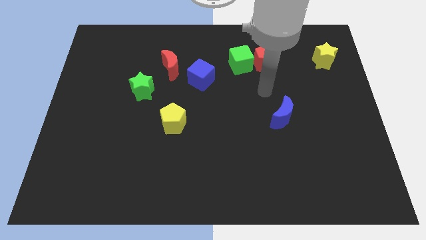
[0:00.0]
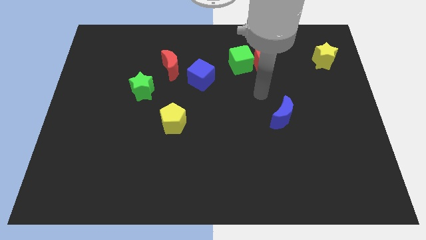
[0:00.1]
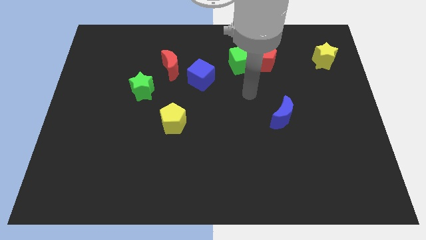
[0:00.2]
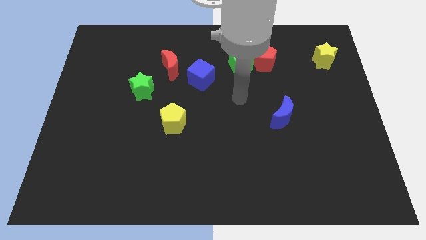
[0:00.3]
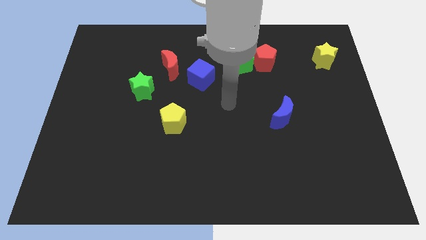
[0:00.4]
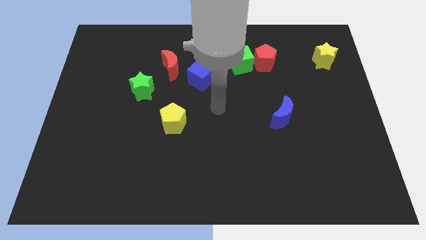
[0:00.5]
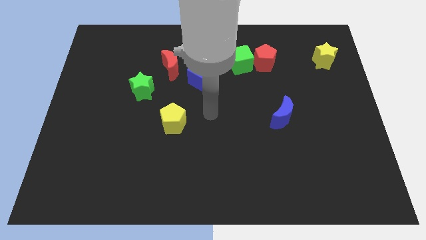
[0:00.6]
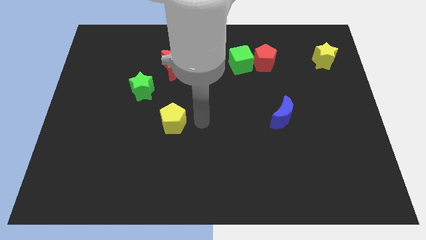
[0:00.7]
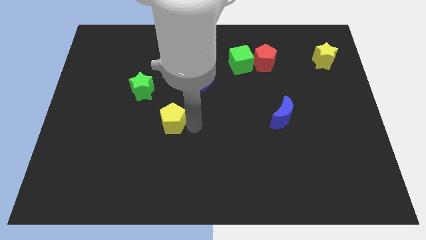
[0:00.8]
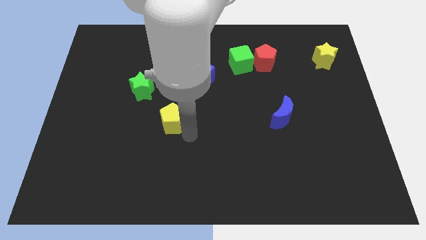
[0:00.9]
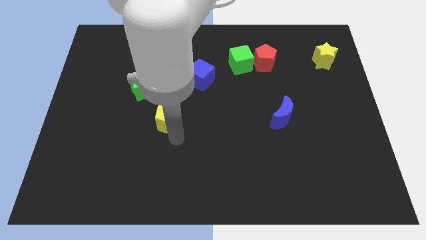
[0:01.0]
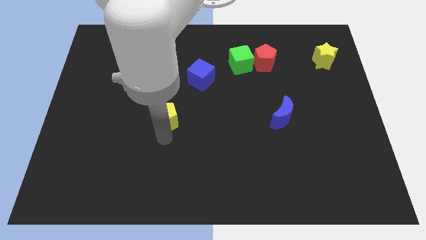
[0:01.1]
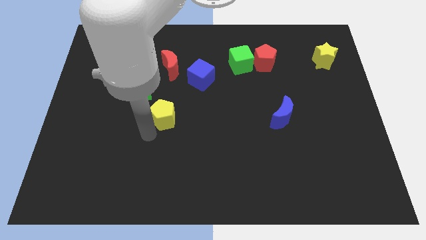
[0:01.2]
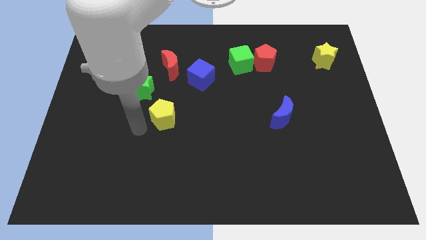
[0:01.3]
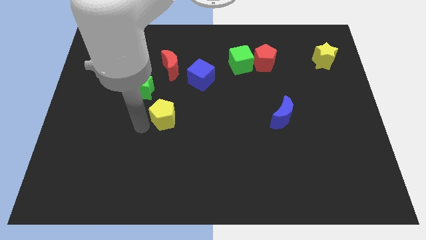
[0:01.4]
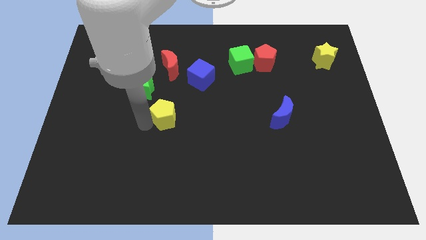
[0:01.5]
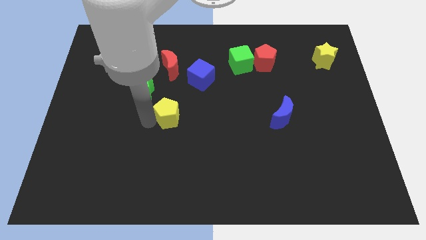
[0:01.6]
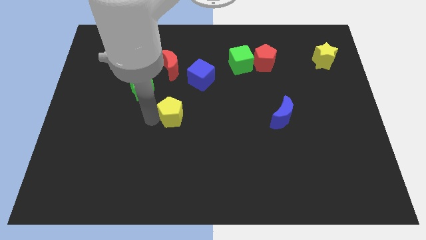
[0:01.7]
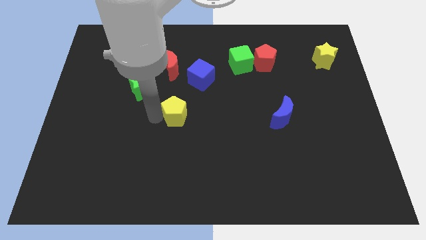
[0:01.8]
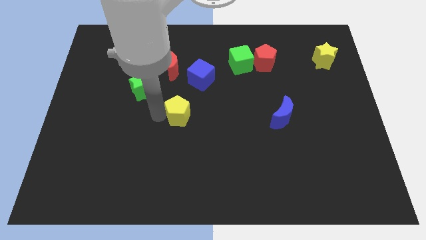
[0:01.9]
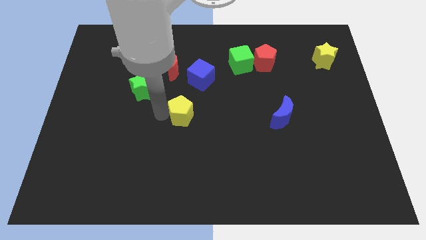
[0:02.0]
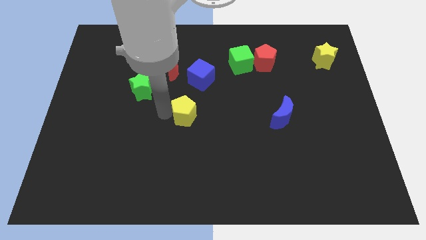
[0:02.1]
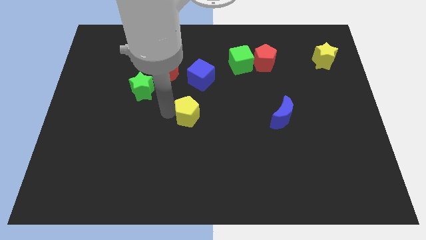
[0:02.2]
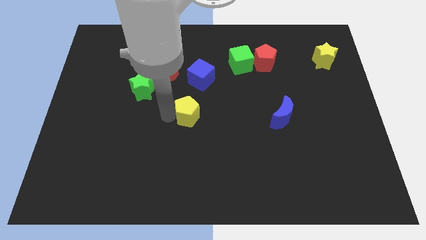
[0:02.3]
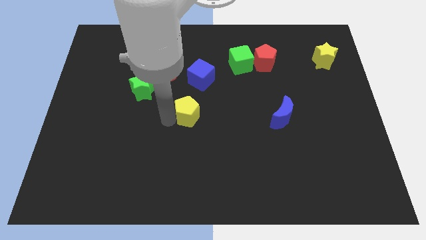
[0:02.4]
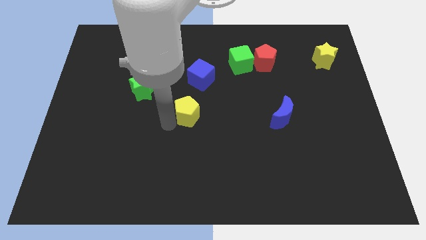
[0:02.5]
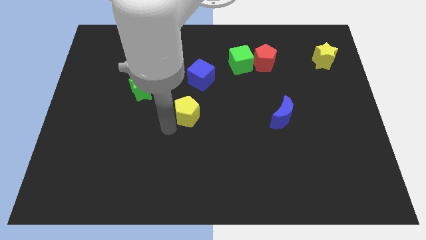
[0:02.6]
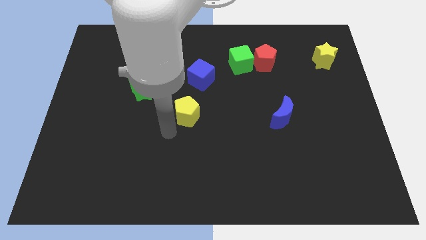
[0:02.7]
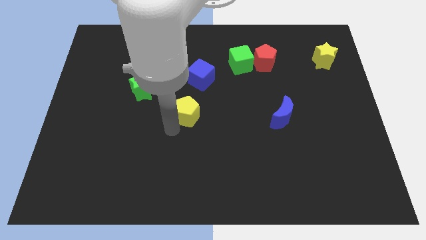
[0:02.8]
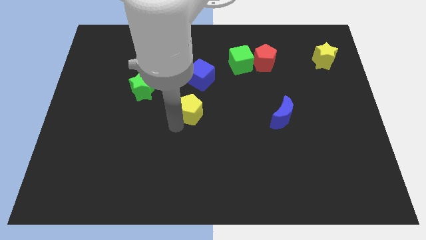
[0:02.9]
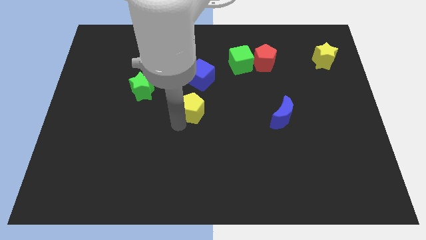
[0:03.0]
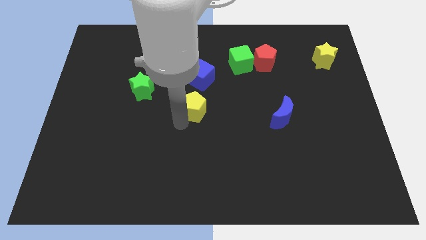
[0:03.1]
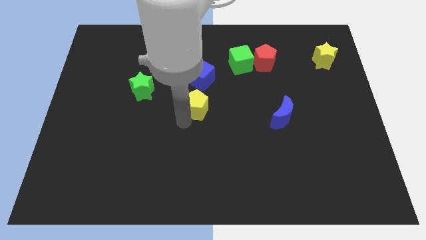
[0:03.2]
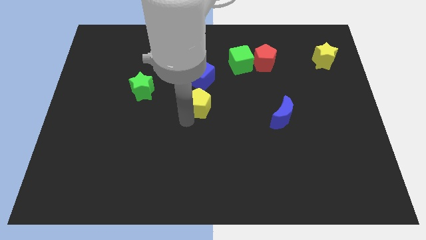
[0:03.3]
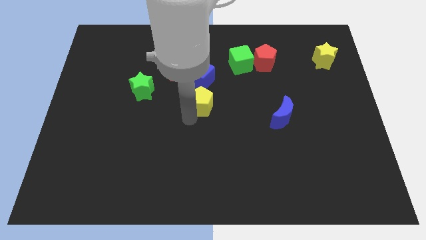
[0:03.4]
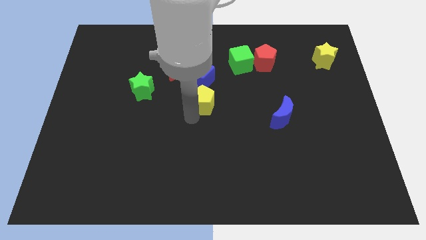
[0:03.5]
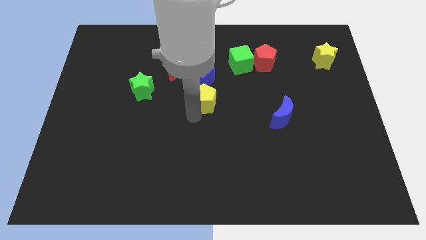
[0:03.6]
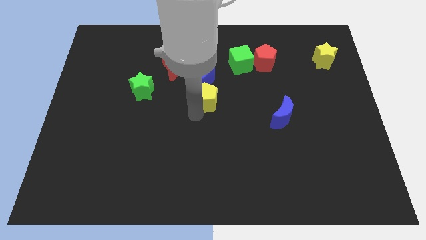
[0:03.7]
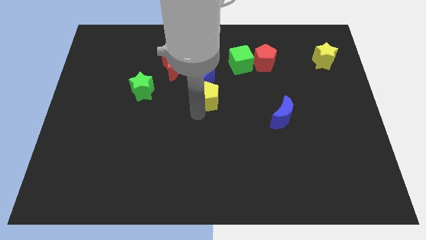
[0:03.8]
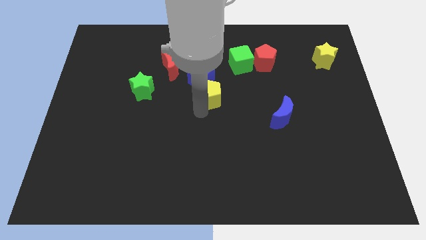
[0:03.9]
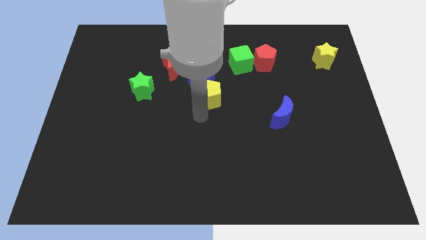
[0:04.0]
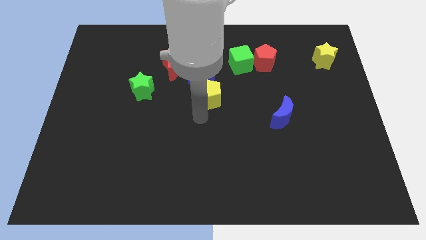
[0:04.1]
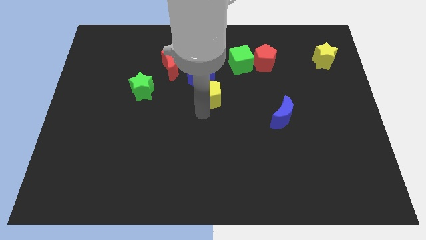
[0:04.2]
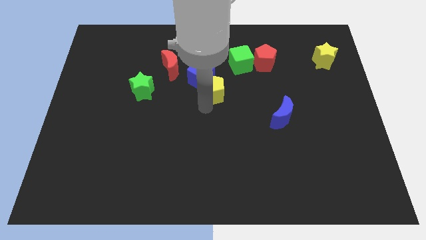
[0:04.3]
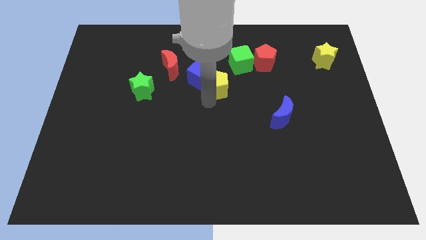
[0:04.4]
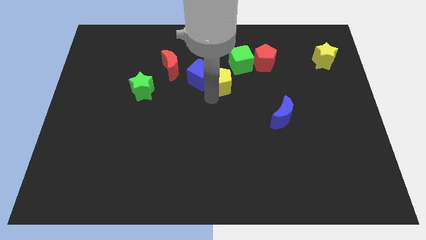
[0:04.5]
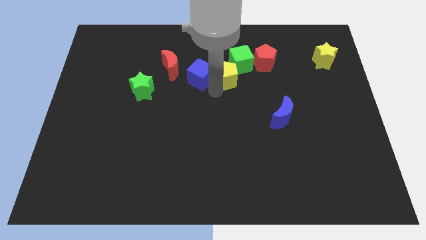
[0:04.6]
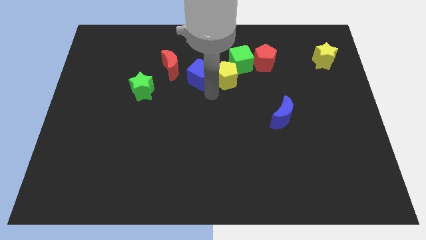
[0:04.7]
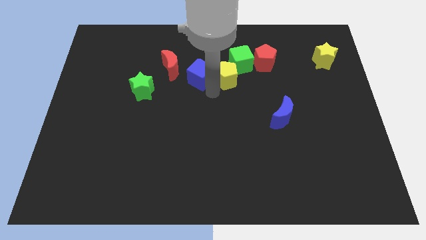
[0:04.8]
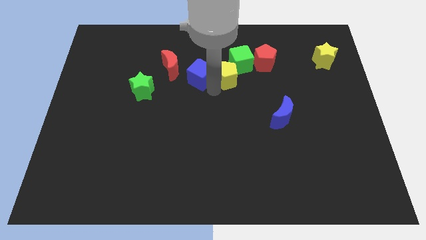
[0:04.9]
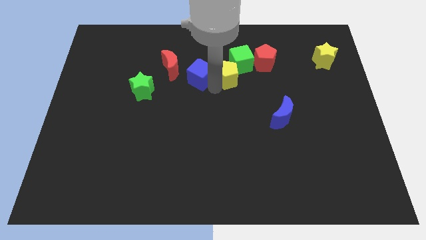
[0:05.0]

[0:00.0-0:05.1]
slide the yellow pentagon towards the green cube

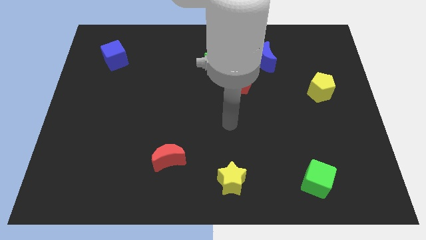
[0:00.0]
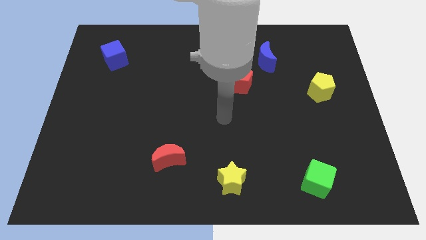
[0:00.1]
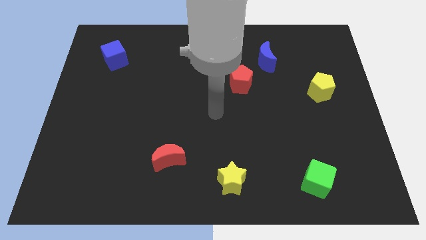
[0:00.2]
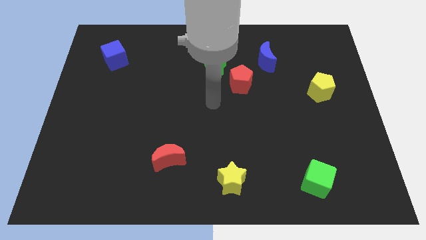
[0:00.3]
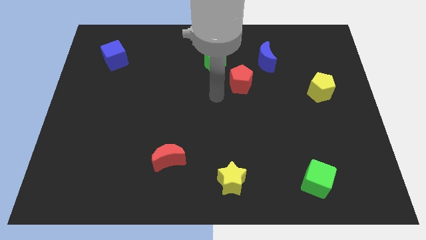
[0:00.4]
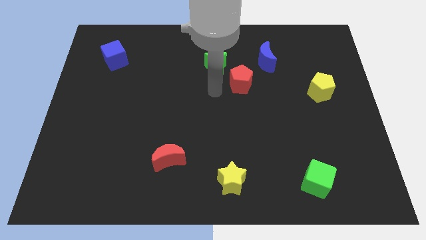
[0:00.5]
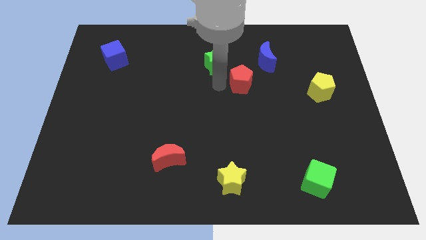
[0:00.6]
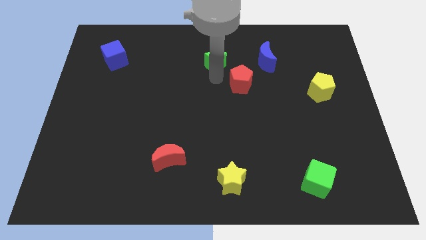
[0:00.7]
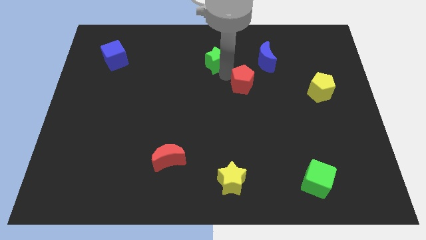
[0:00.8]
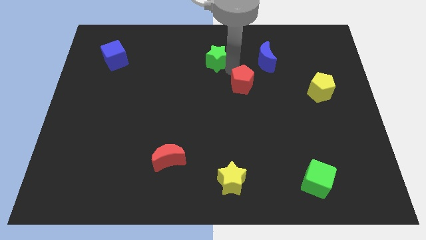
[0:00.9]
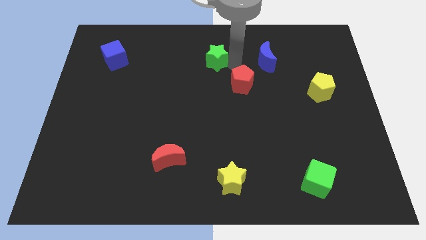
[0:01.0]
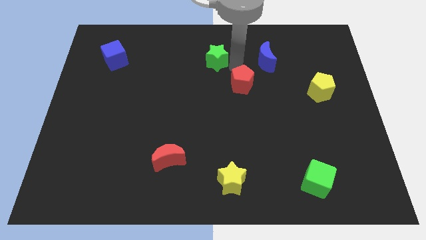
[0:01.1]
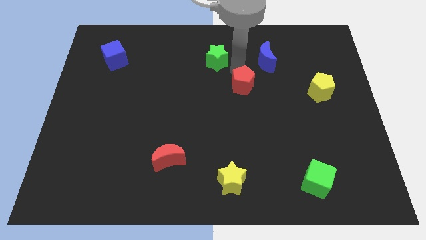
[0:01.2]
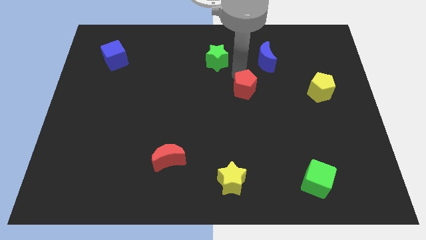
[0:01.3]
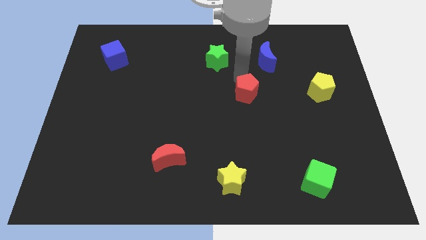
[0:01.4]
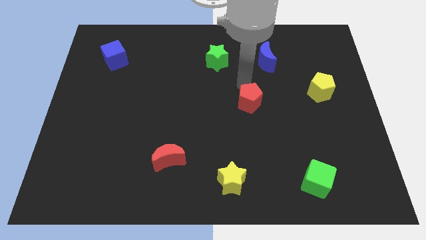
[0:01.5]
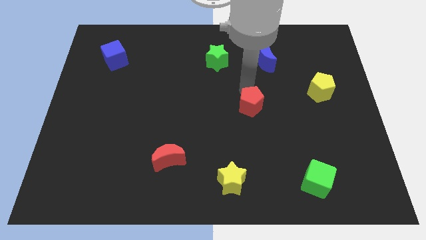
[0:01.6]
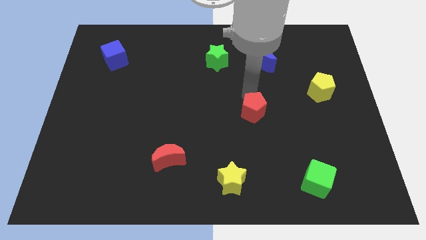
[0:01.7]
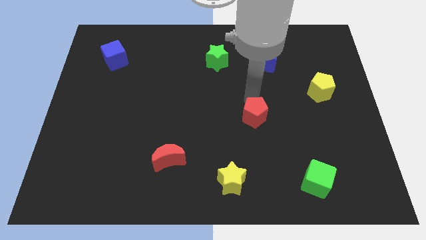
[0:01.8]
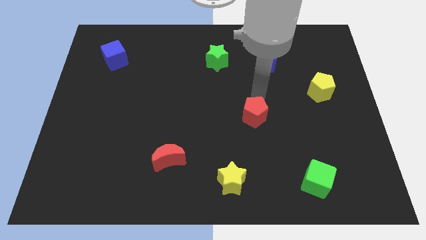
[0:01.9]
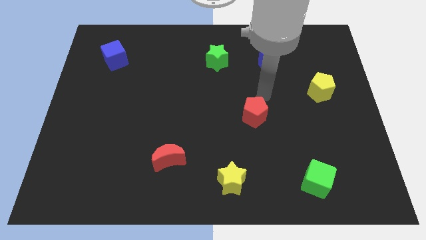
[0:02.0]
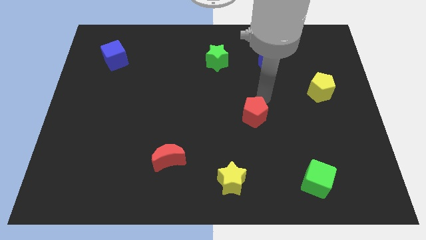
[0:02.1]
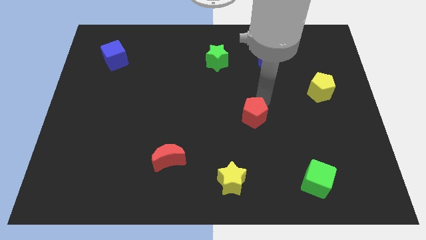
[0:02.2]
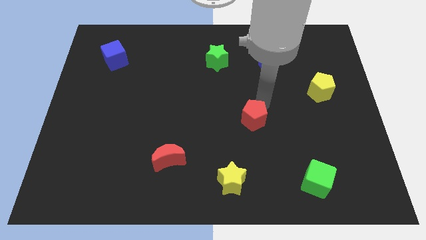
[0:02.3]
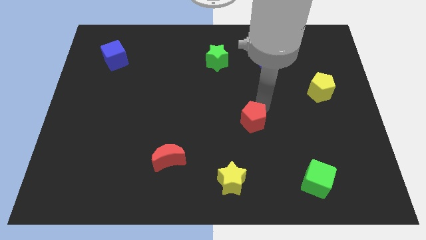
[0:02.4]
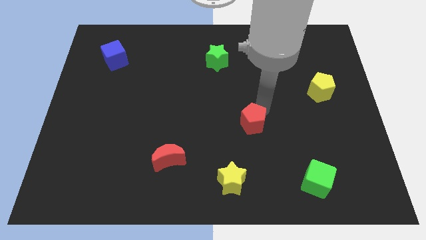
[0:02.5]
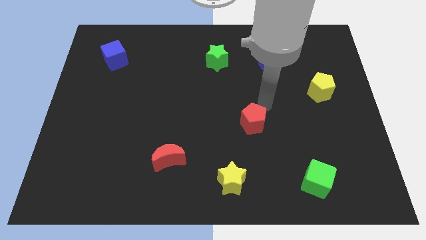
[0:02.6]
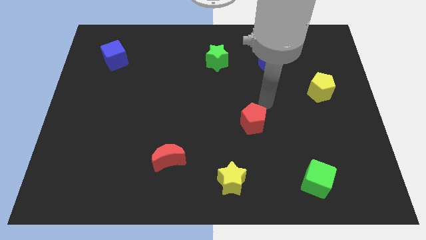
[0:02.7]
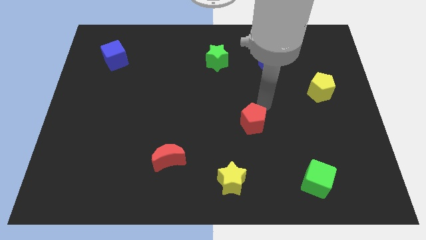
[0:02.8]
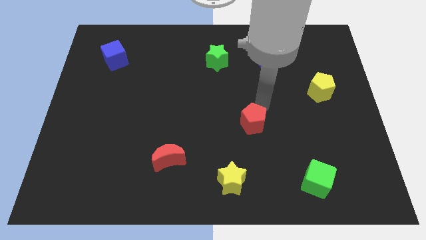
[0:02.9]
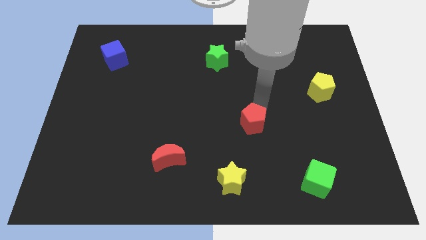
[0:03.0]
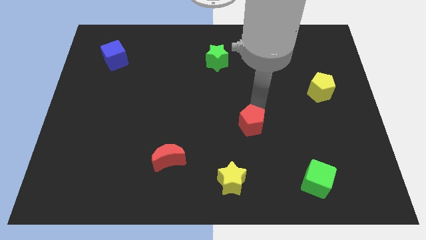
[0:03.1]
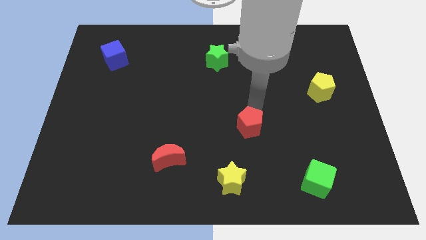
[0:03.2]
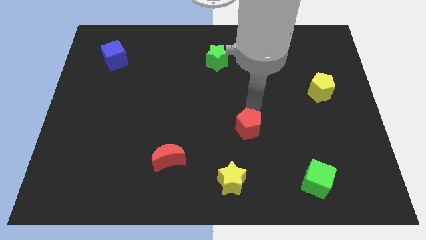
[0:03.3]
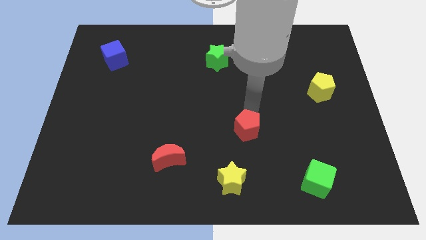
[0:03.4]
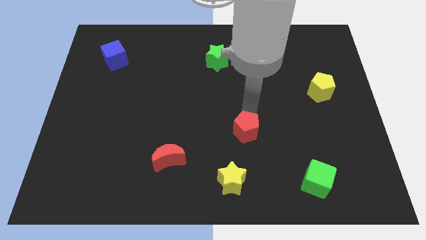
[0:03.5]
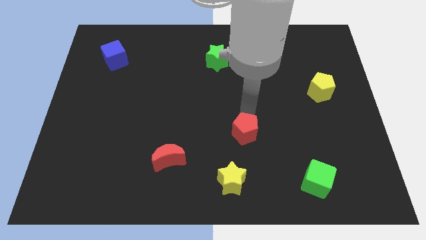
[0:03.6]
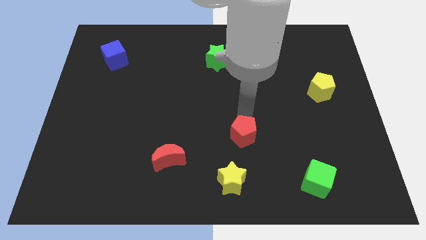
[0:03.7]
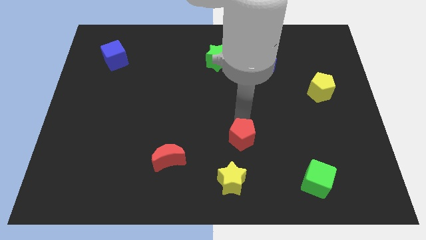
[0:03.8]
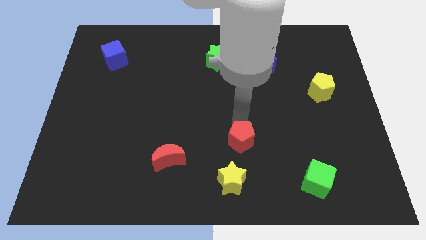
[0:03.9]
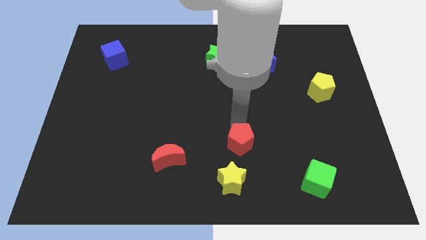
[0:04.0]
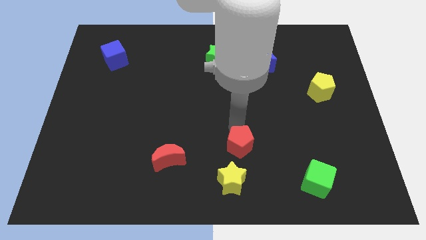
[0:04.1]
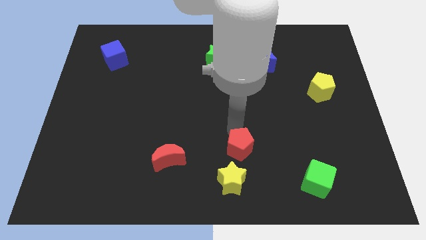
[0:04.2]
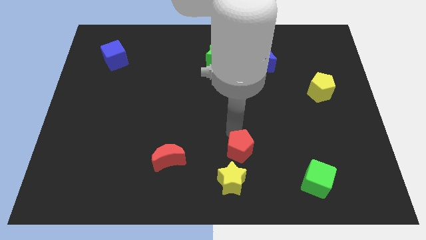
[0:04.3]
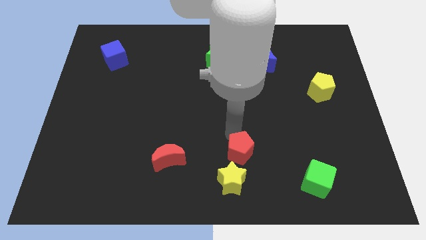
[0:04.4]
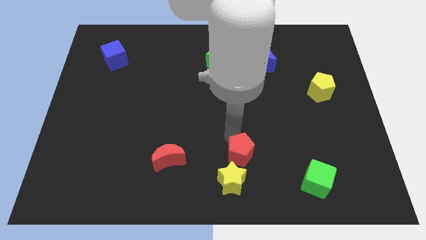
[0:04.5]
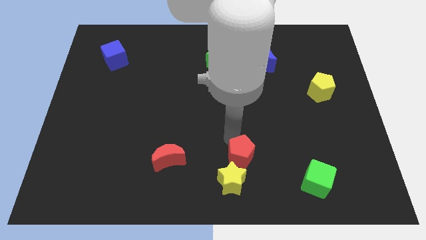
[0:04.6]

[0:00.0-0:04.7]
put the red pentagon close to the yellow star
